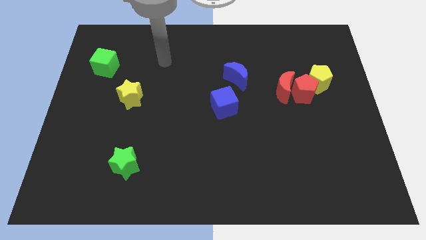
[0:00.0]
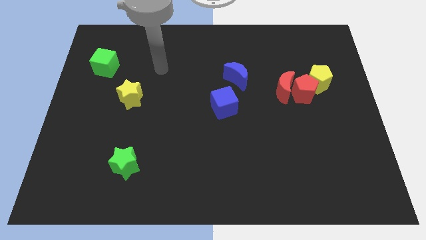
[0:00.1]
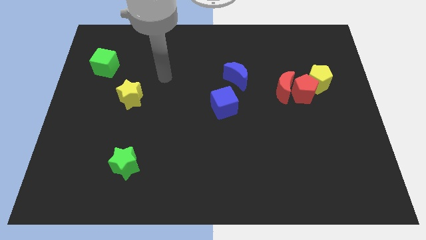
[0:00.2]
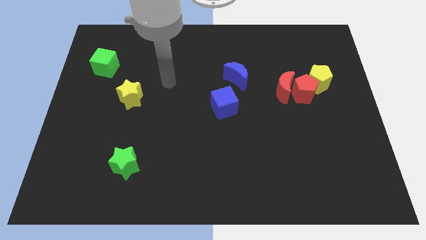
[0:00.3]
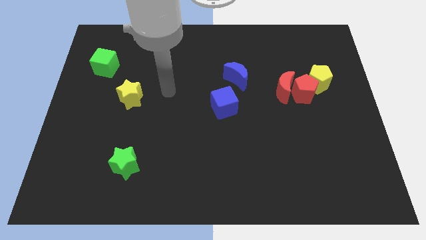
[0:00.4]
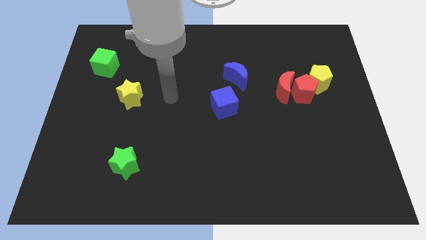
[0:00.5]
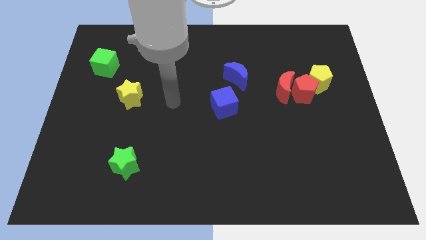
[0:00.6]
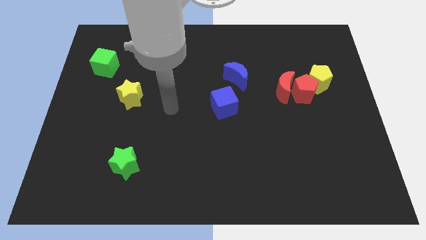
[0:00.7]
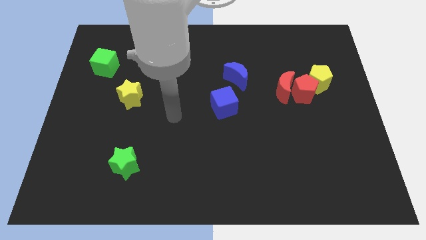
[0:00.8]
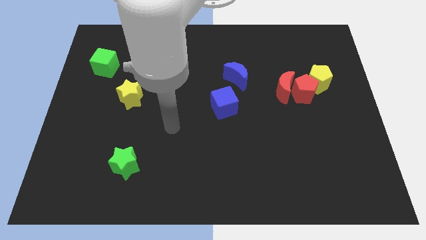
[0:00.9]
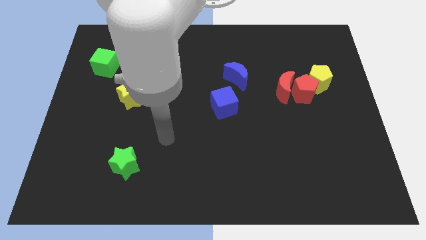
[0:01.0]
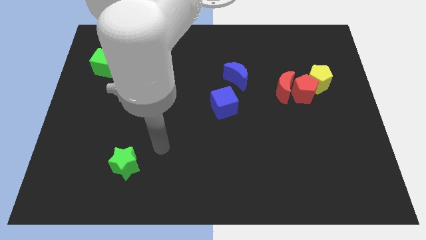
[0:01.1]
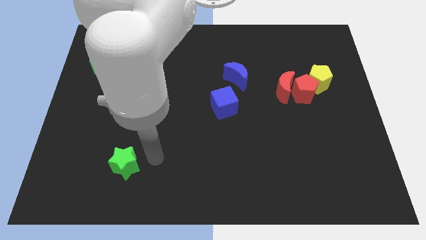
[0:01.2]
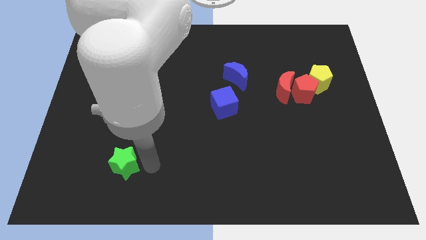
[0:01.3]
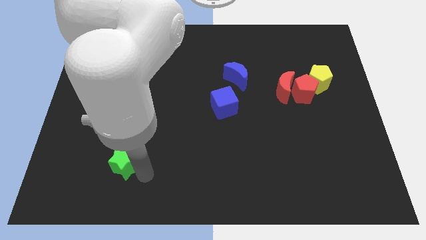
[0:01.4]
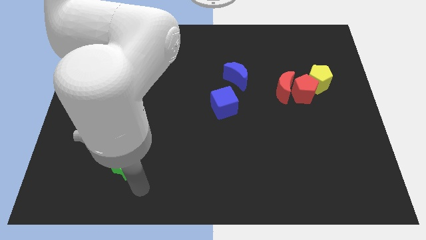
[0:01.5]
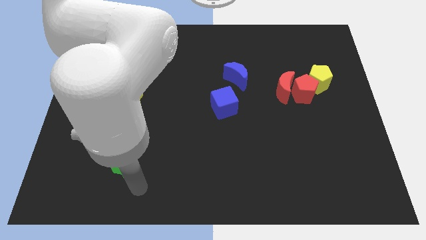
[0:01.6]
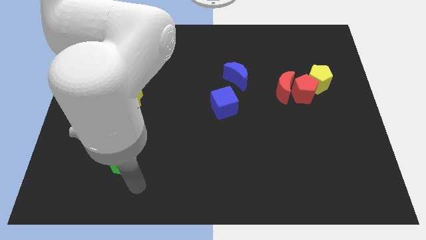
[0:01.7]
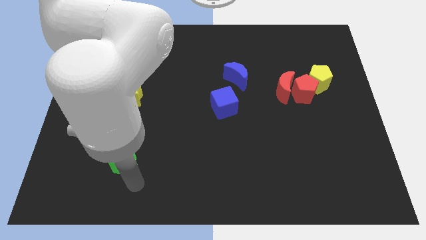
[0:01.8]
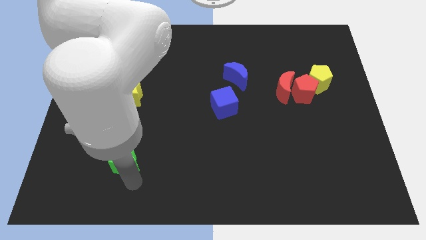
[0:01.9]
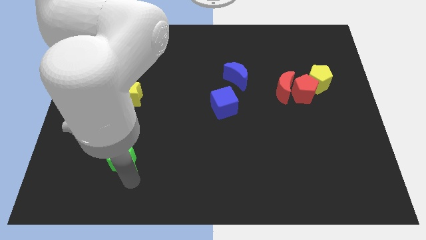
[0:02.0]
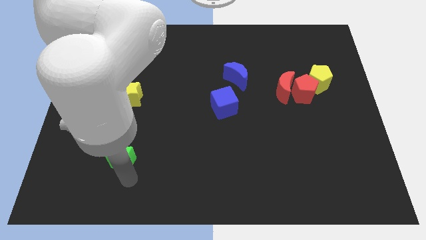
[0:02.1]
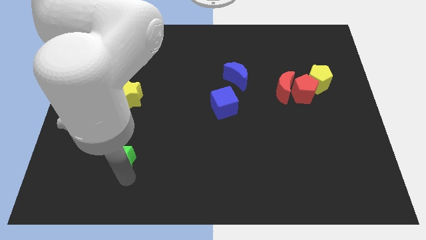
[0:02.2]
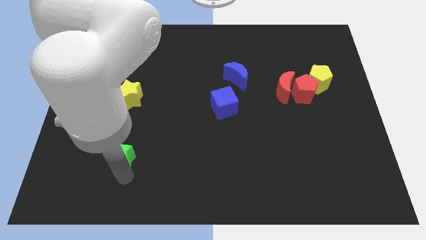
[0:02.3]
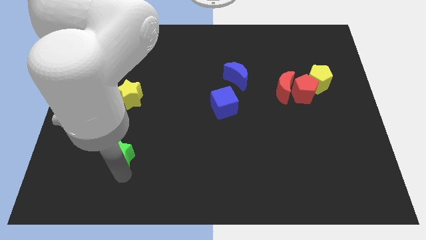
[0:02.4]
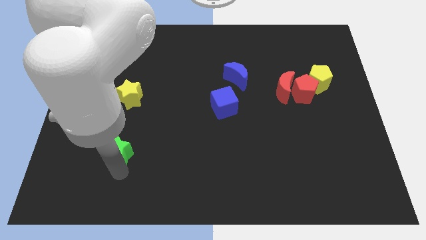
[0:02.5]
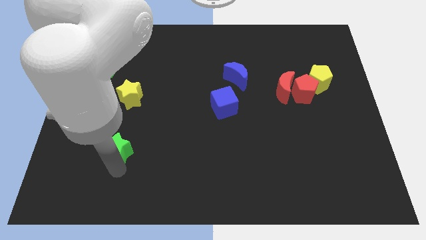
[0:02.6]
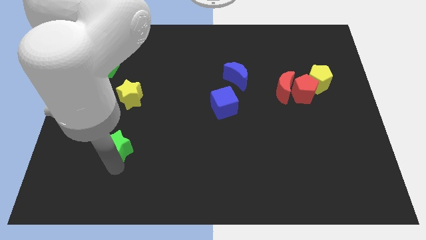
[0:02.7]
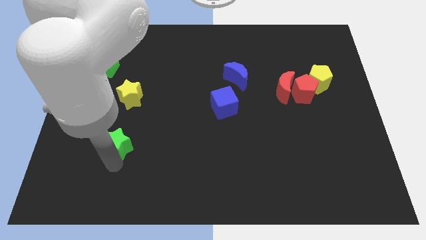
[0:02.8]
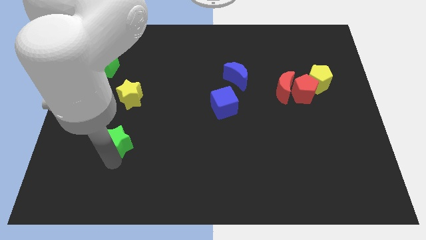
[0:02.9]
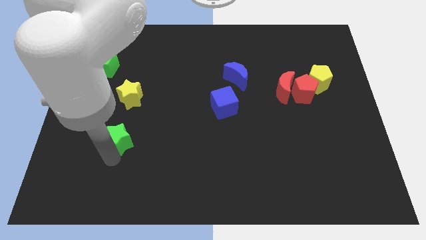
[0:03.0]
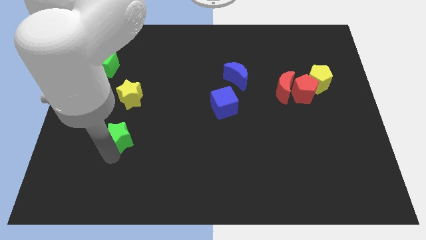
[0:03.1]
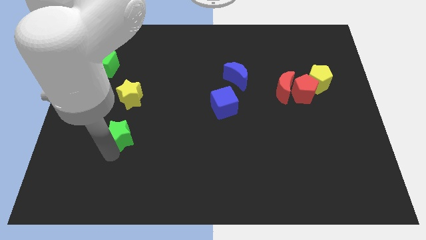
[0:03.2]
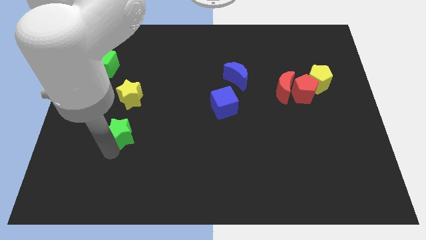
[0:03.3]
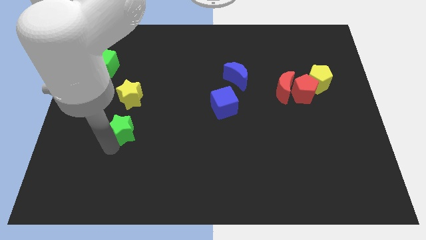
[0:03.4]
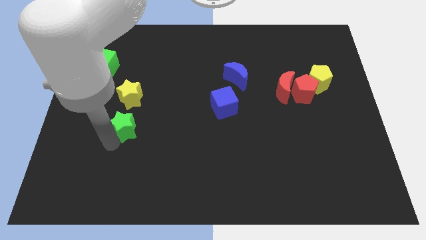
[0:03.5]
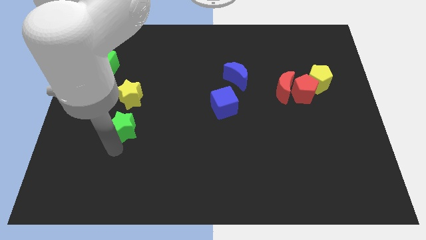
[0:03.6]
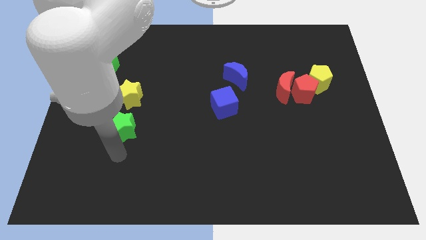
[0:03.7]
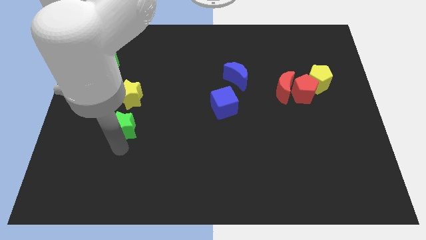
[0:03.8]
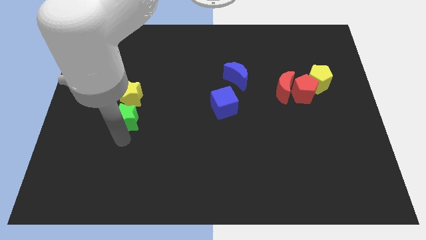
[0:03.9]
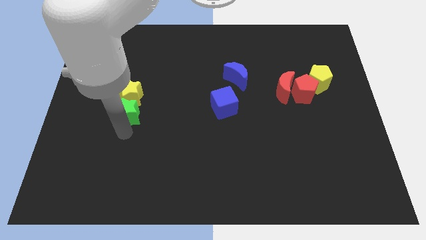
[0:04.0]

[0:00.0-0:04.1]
put the green star to the yellow star

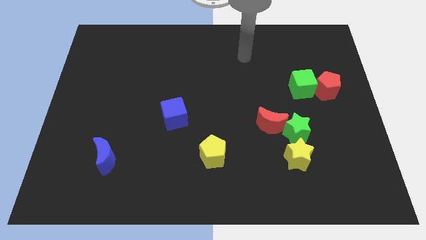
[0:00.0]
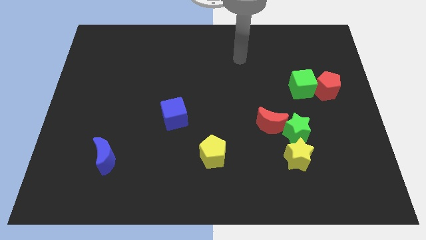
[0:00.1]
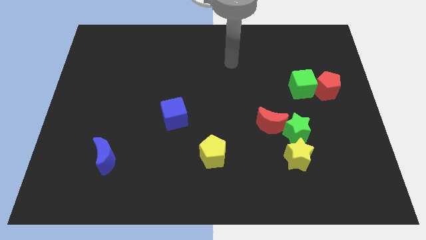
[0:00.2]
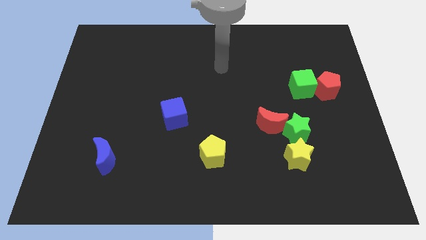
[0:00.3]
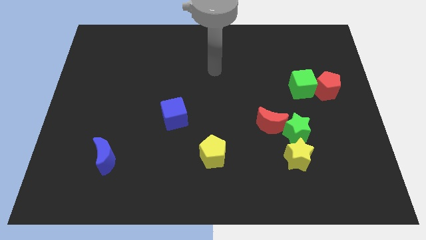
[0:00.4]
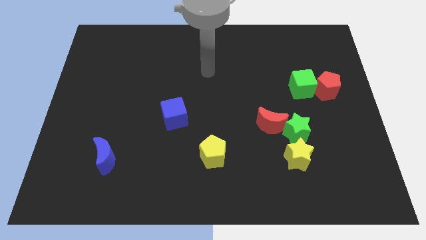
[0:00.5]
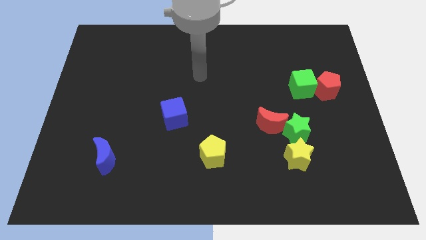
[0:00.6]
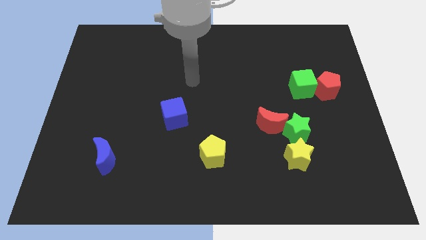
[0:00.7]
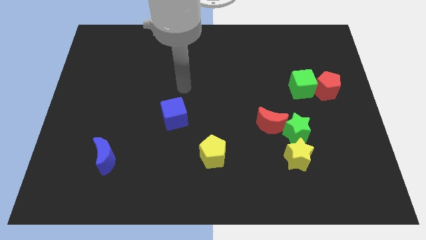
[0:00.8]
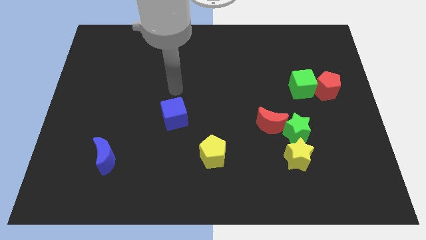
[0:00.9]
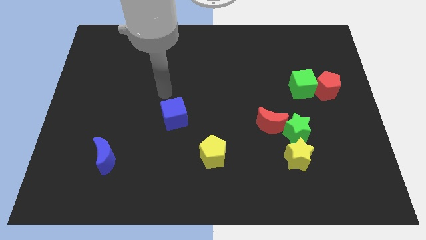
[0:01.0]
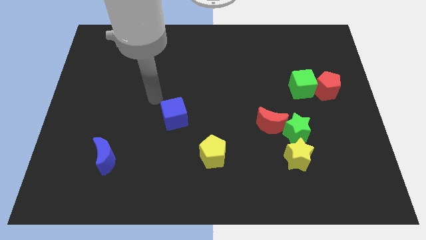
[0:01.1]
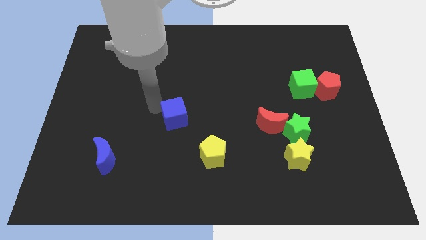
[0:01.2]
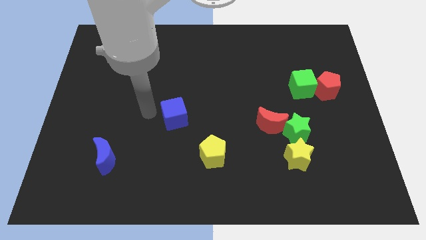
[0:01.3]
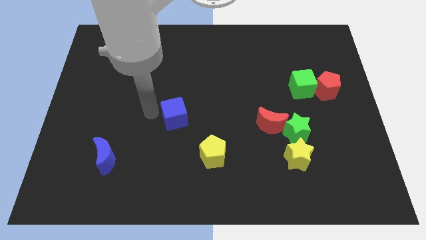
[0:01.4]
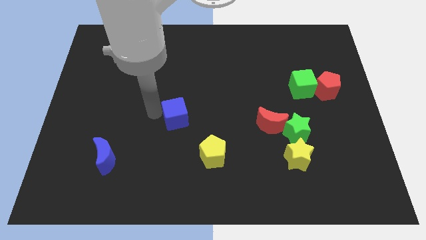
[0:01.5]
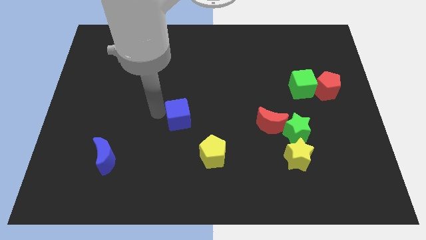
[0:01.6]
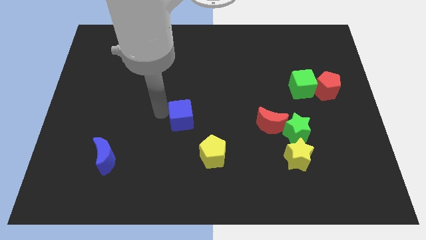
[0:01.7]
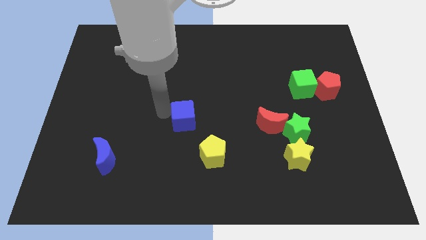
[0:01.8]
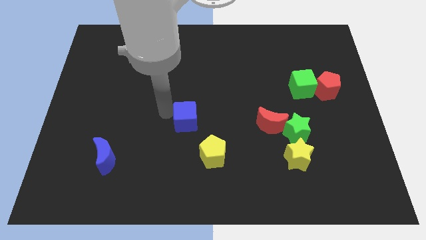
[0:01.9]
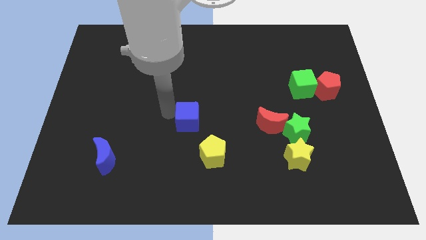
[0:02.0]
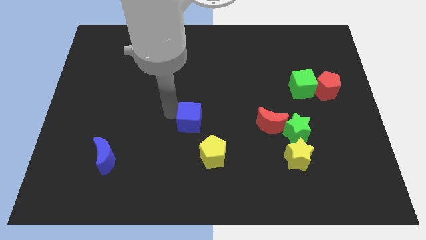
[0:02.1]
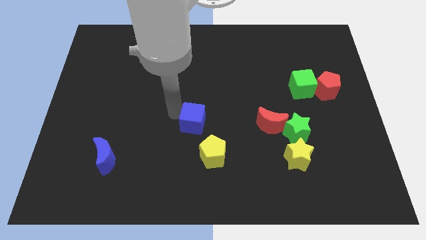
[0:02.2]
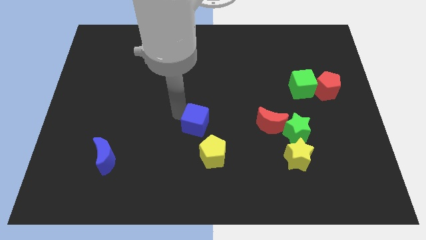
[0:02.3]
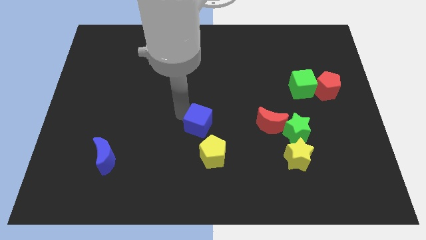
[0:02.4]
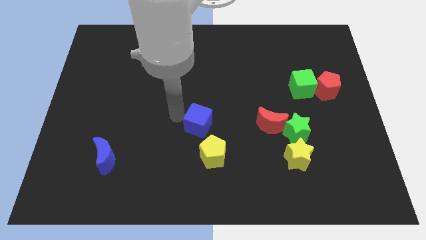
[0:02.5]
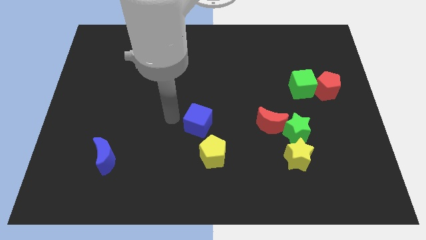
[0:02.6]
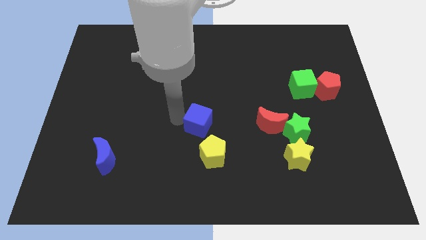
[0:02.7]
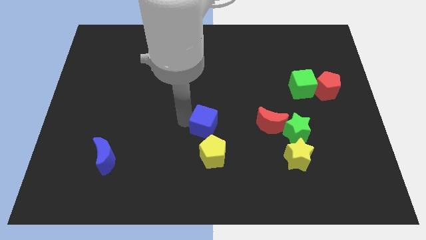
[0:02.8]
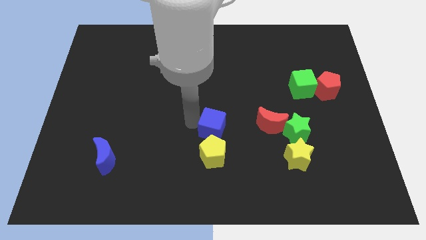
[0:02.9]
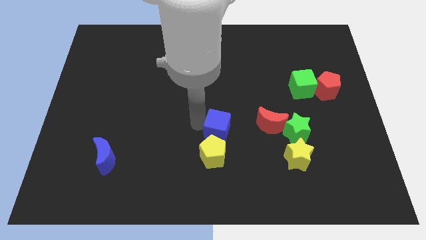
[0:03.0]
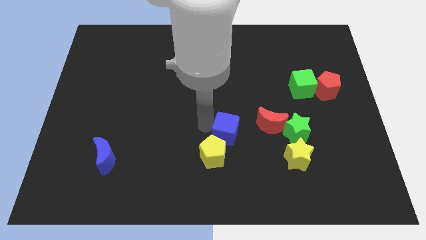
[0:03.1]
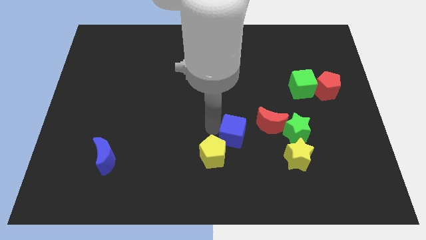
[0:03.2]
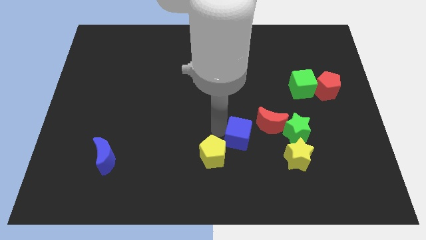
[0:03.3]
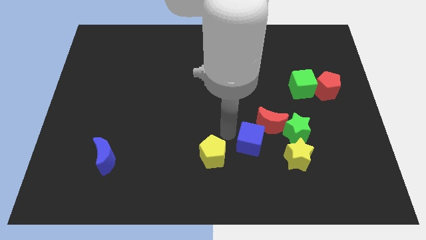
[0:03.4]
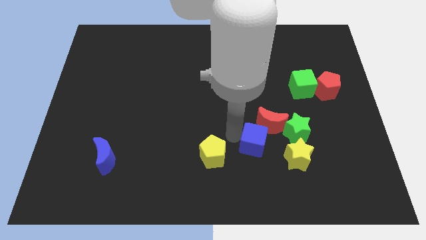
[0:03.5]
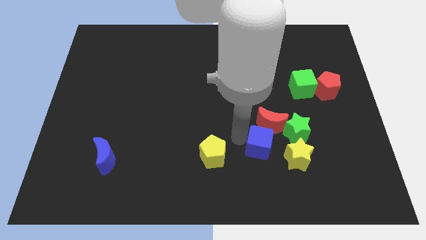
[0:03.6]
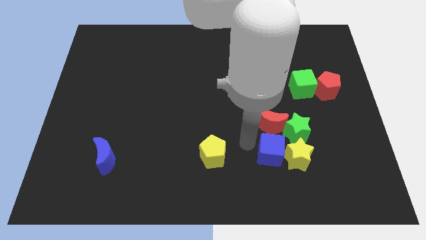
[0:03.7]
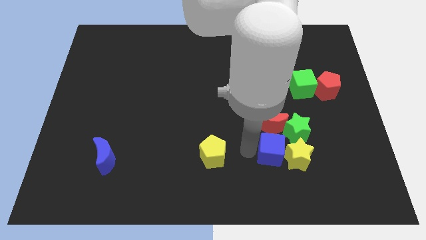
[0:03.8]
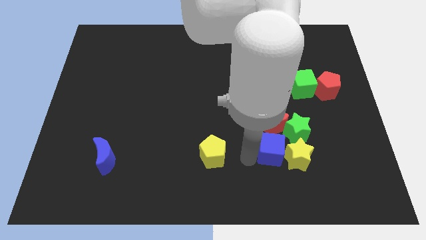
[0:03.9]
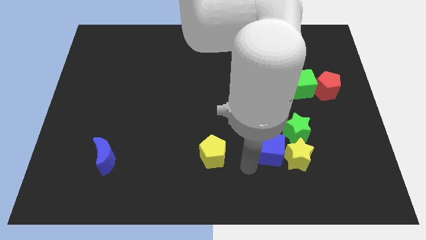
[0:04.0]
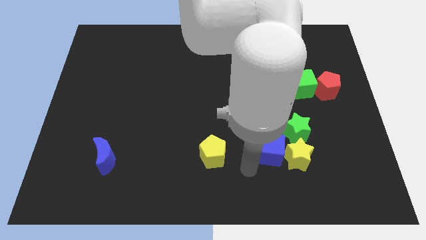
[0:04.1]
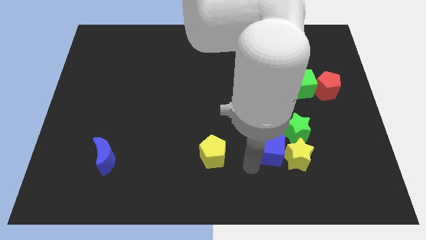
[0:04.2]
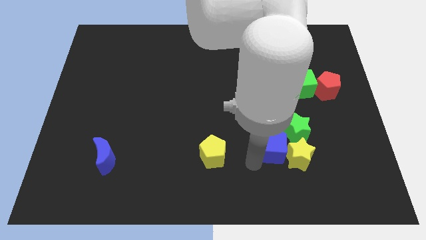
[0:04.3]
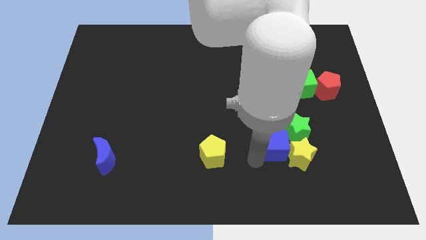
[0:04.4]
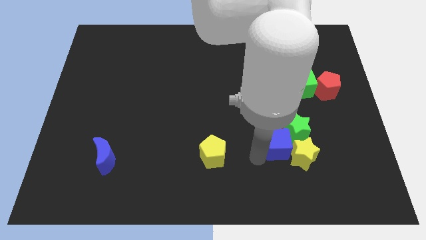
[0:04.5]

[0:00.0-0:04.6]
put the blue cube towards the green star

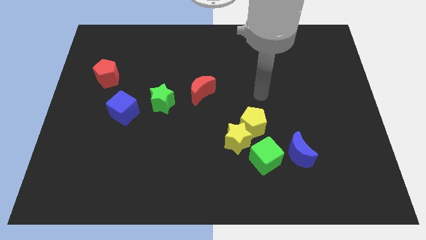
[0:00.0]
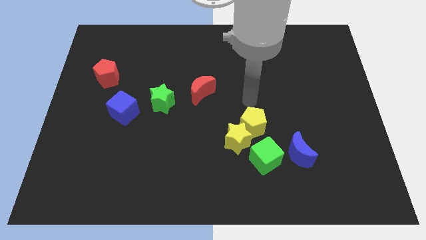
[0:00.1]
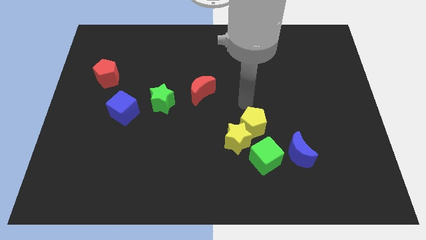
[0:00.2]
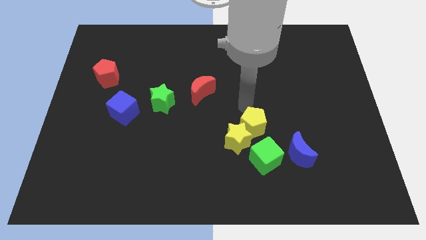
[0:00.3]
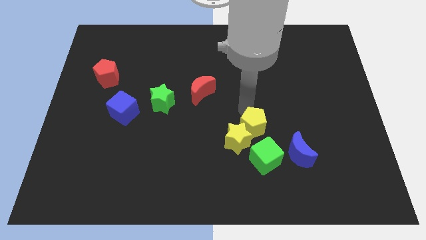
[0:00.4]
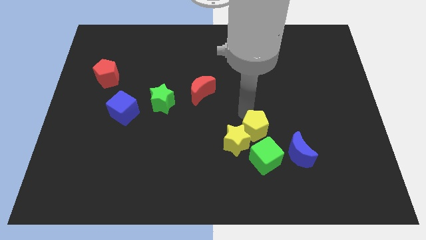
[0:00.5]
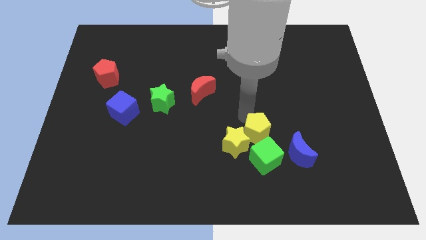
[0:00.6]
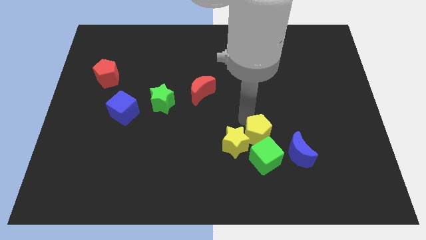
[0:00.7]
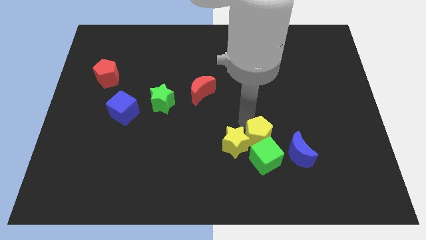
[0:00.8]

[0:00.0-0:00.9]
move the yellow pentagon to the green cube
